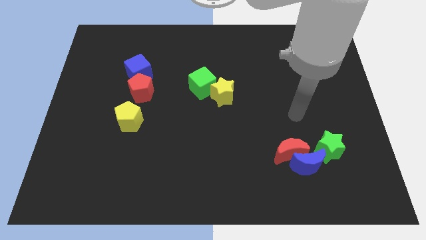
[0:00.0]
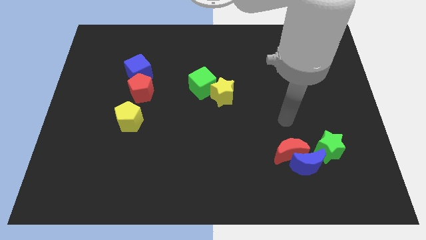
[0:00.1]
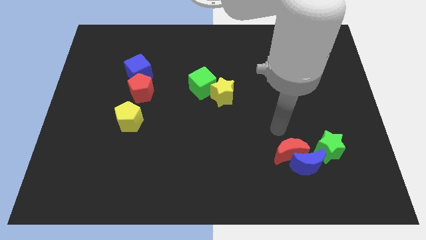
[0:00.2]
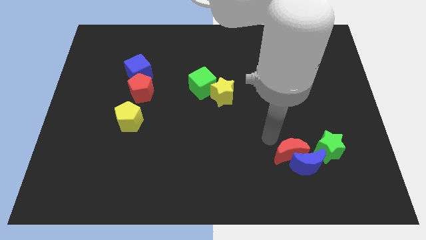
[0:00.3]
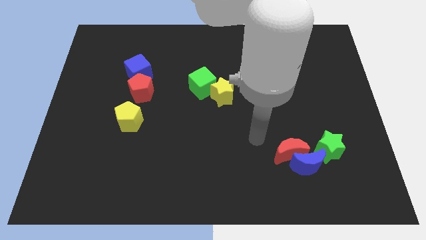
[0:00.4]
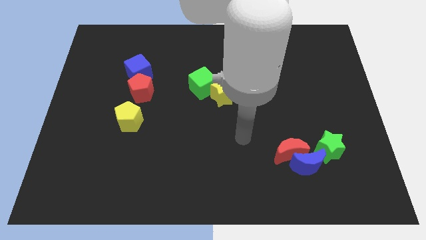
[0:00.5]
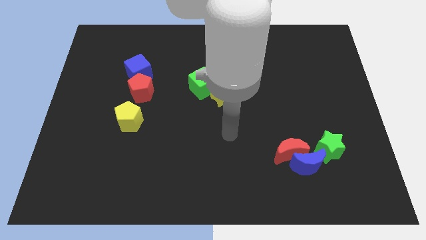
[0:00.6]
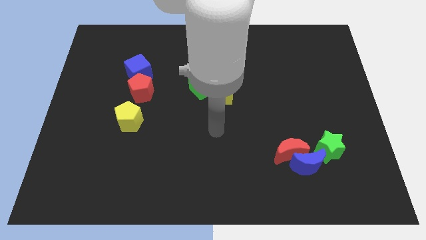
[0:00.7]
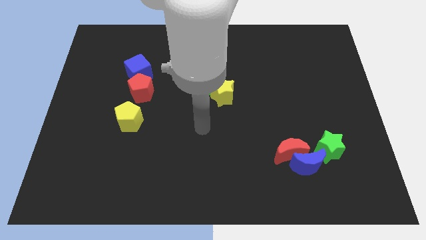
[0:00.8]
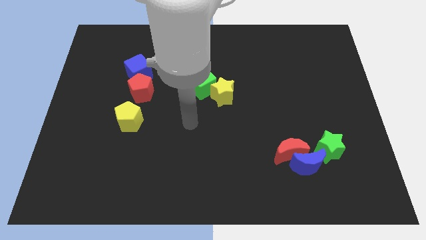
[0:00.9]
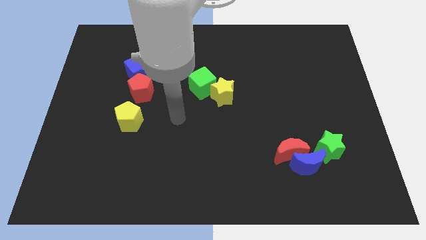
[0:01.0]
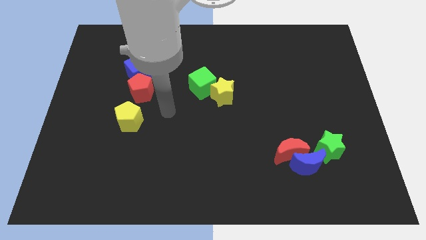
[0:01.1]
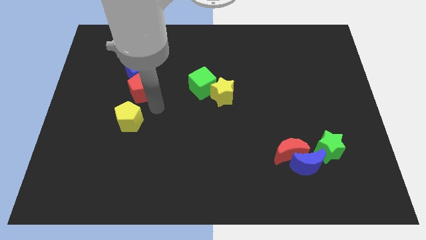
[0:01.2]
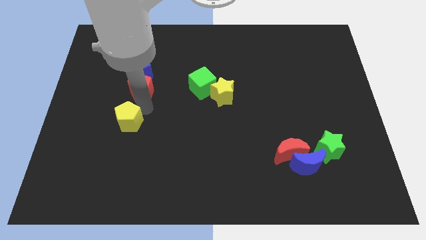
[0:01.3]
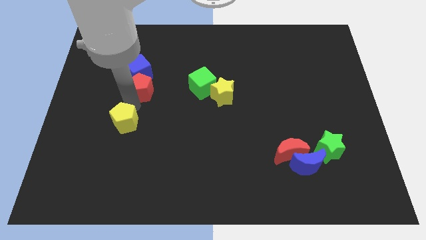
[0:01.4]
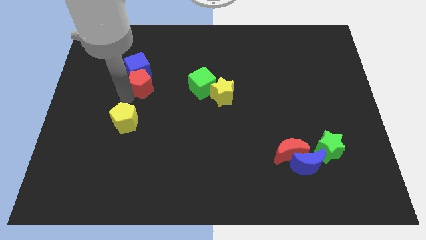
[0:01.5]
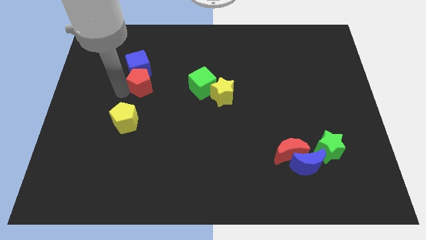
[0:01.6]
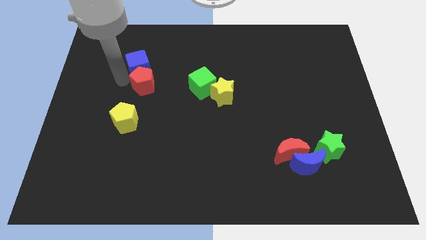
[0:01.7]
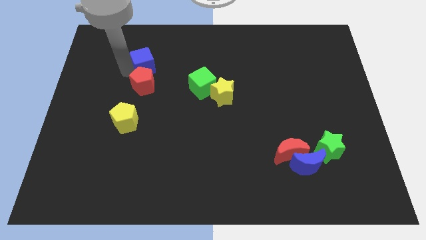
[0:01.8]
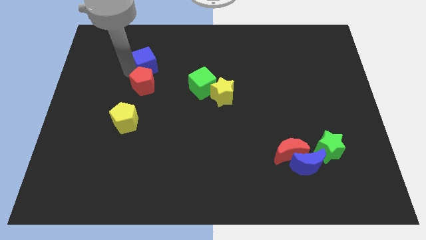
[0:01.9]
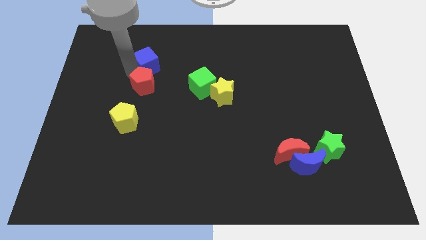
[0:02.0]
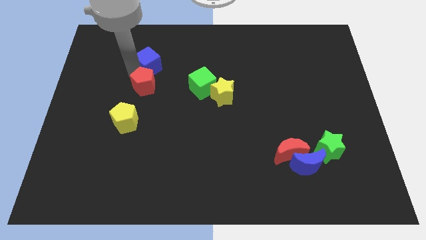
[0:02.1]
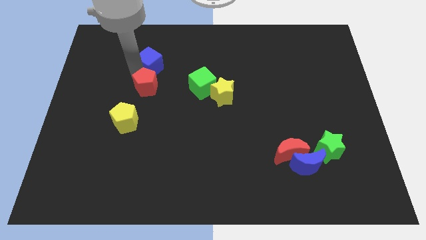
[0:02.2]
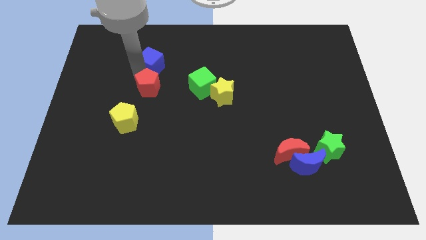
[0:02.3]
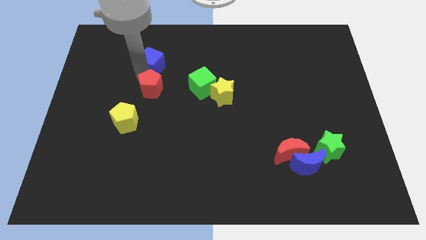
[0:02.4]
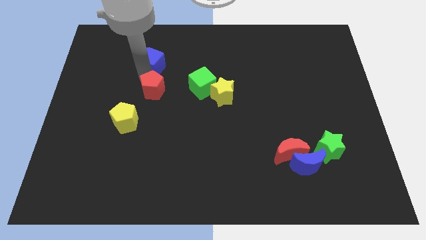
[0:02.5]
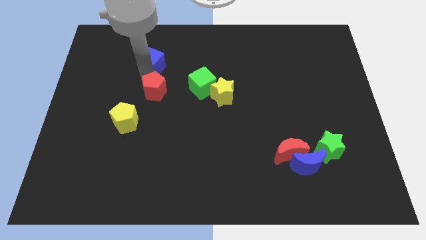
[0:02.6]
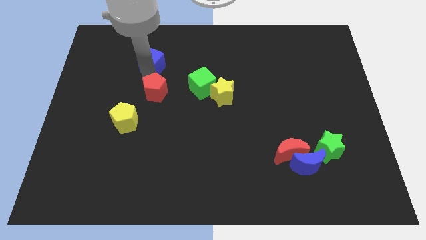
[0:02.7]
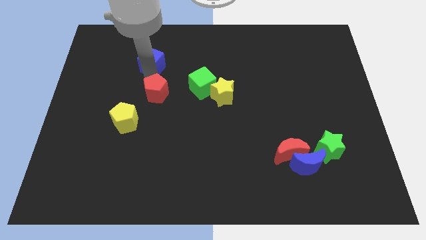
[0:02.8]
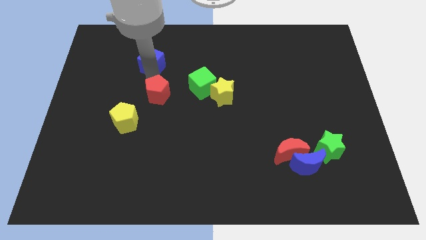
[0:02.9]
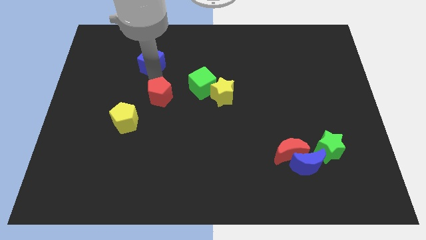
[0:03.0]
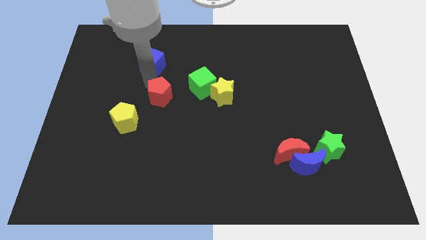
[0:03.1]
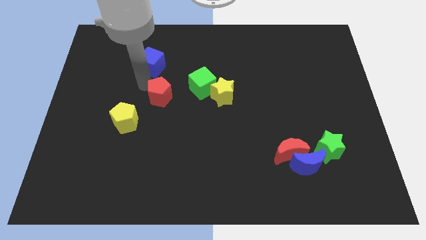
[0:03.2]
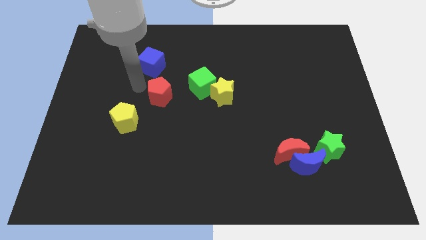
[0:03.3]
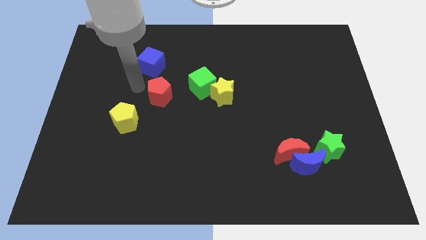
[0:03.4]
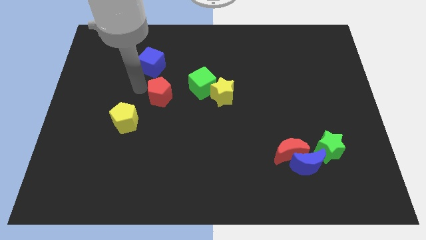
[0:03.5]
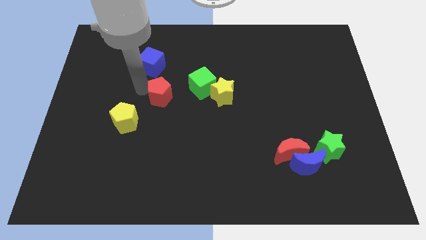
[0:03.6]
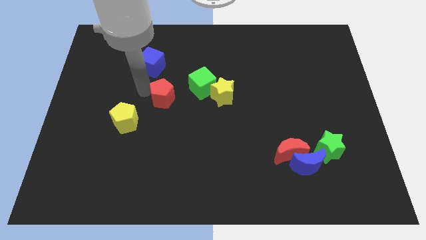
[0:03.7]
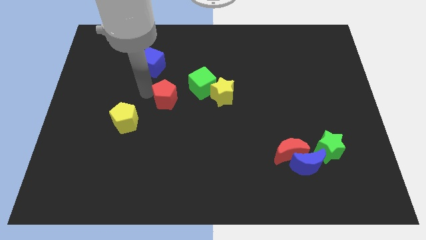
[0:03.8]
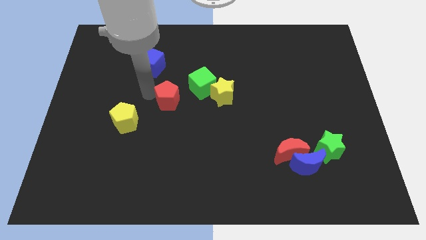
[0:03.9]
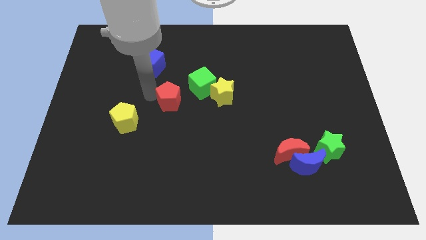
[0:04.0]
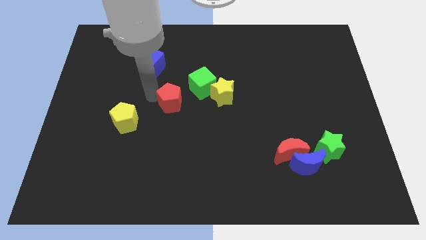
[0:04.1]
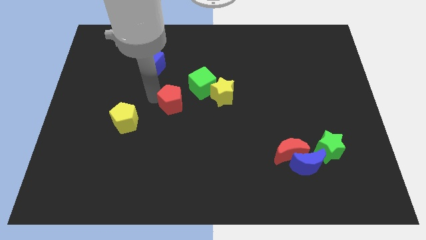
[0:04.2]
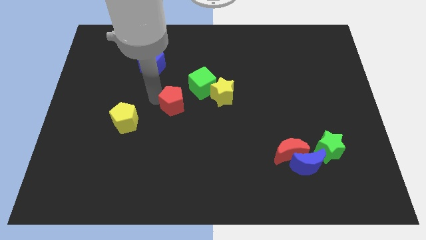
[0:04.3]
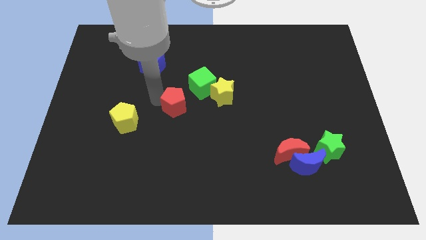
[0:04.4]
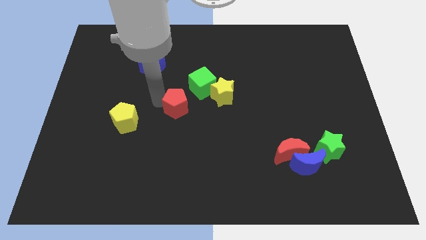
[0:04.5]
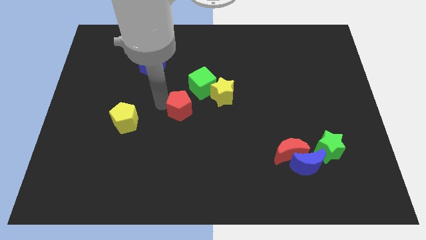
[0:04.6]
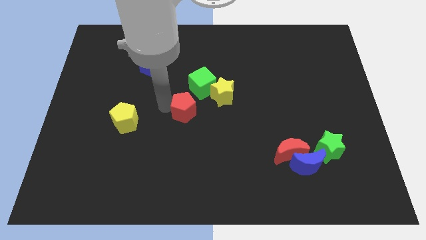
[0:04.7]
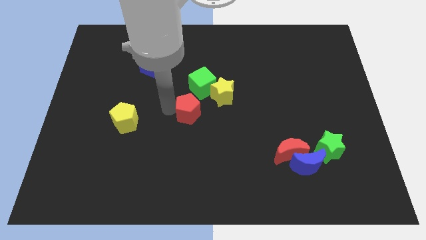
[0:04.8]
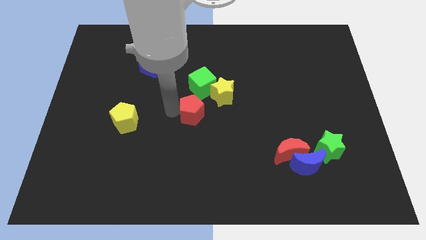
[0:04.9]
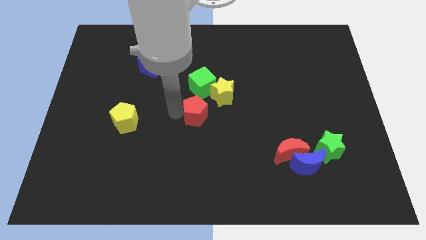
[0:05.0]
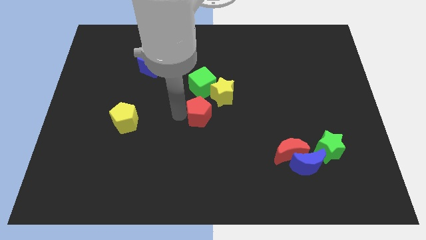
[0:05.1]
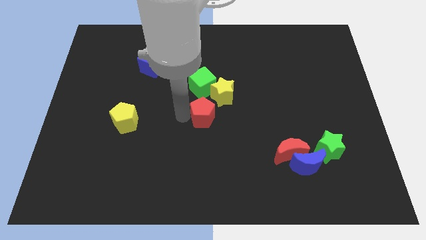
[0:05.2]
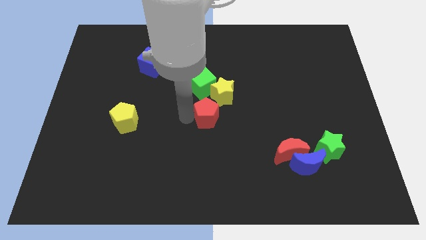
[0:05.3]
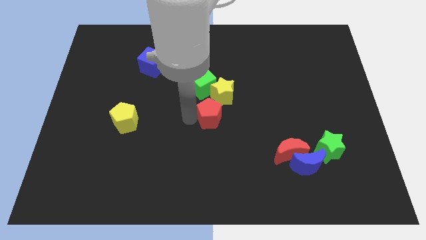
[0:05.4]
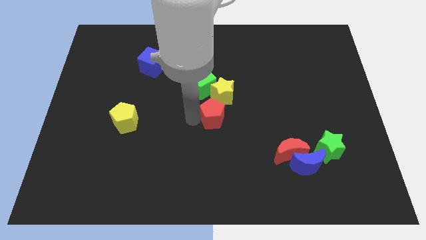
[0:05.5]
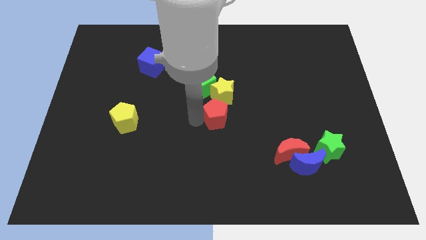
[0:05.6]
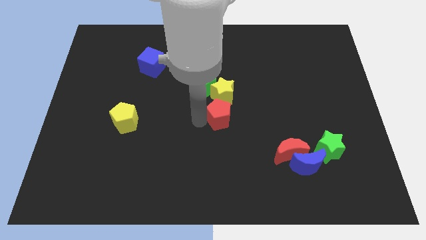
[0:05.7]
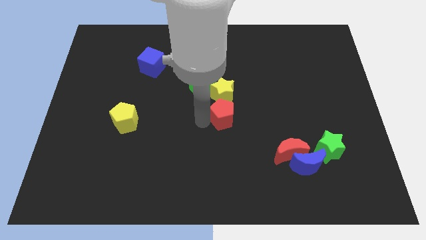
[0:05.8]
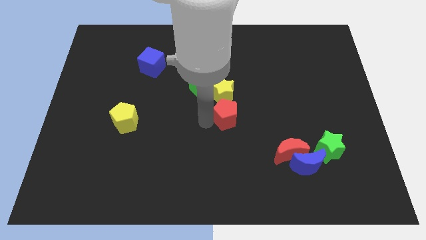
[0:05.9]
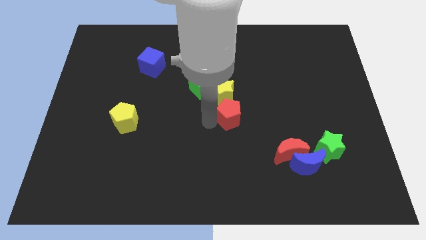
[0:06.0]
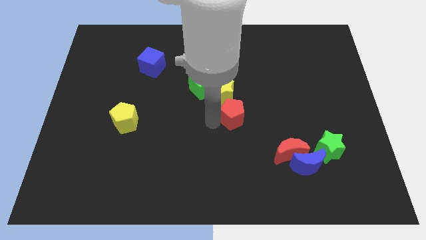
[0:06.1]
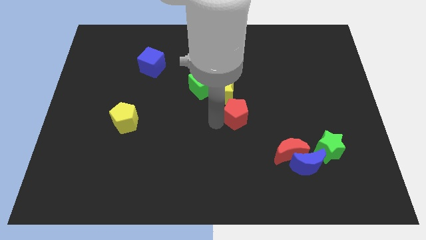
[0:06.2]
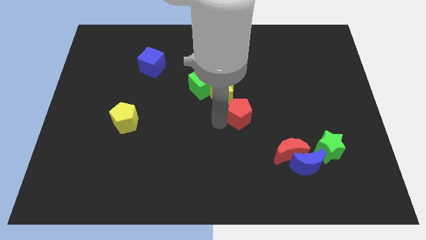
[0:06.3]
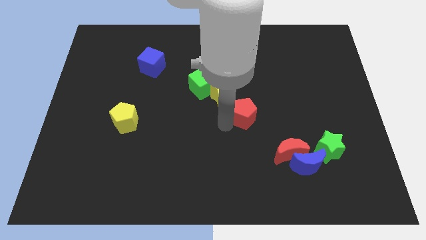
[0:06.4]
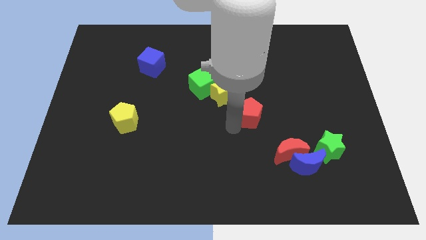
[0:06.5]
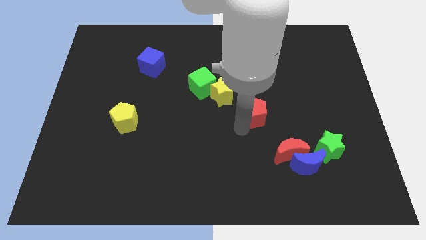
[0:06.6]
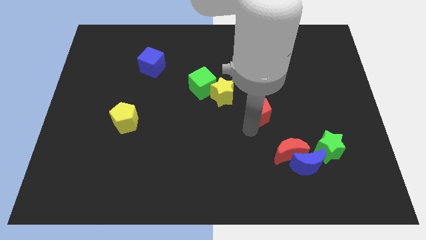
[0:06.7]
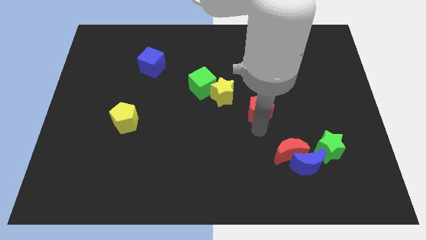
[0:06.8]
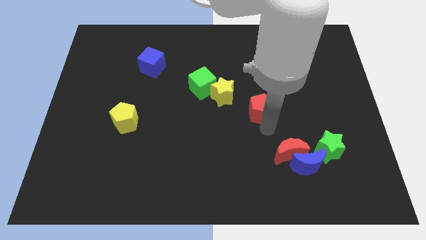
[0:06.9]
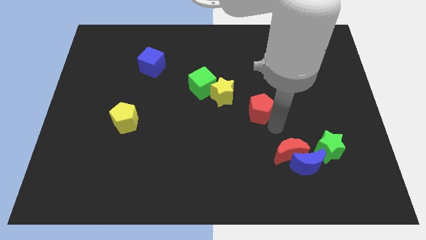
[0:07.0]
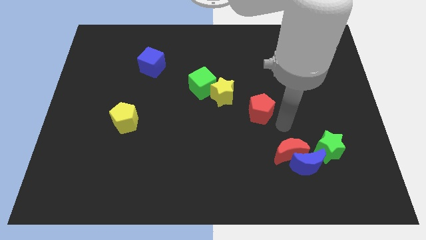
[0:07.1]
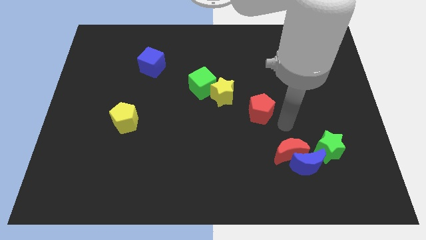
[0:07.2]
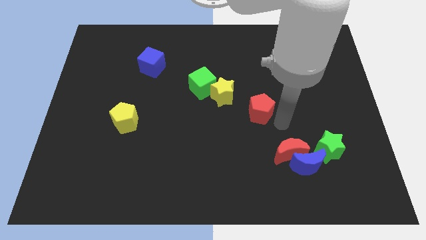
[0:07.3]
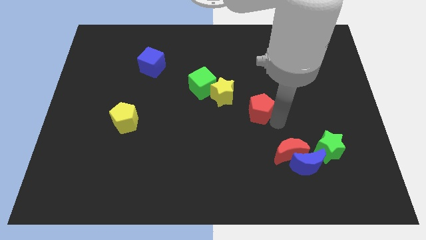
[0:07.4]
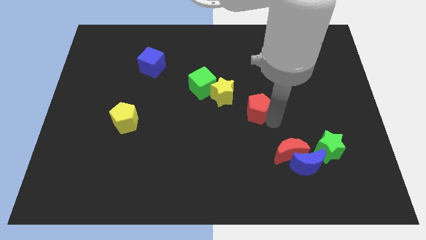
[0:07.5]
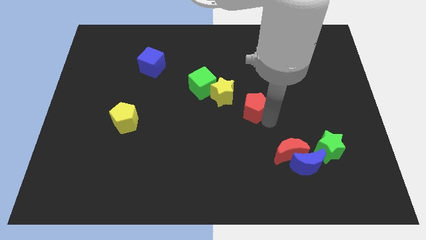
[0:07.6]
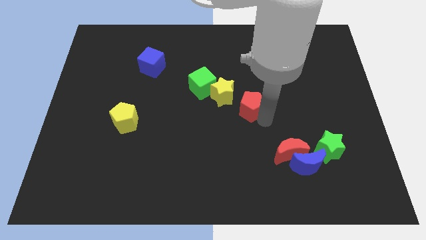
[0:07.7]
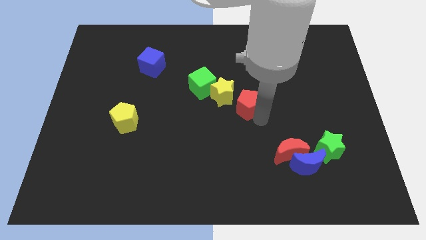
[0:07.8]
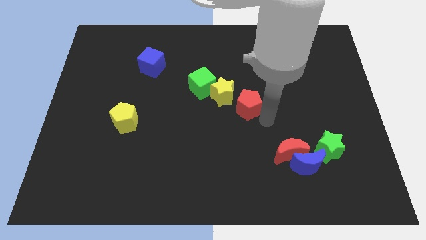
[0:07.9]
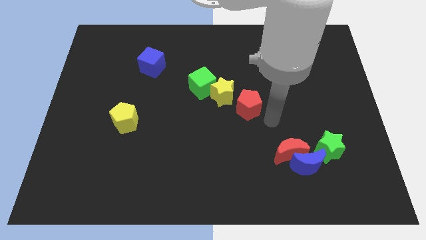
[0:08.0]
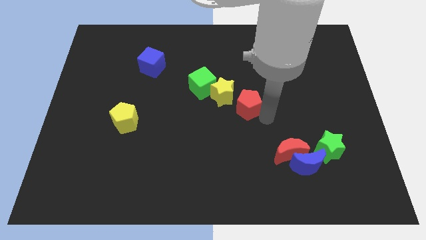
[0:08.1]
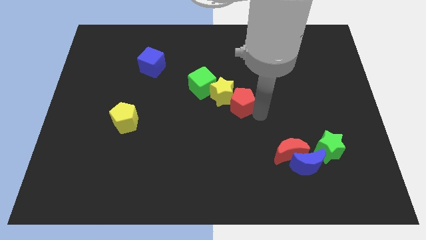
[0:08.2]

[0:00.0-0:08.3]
slide the red pentagon next to the yellow star
